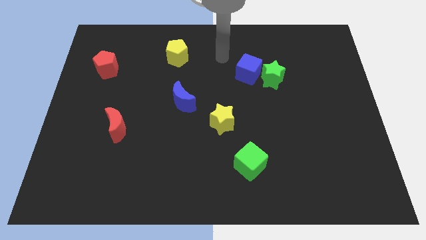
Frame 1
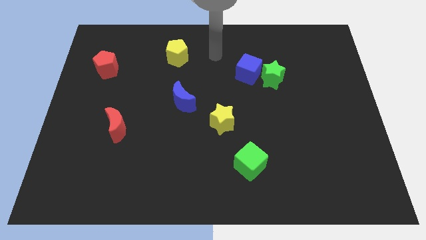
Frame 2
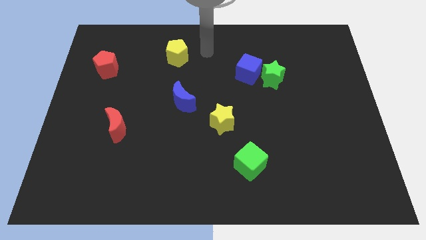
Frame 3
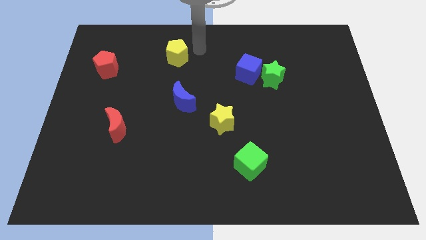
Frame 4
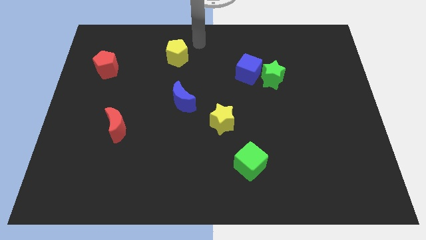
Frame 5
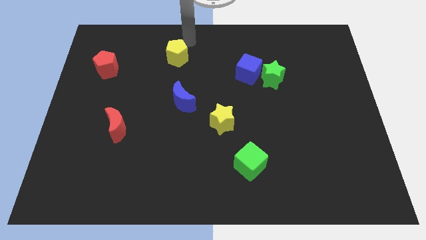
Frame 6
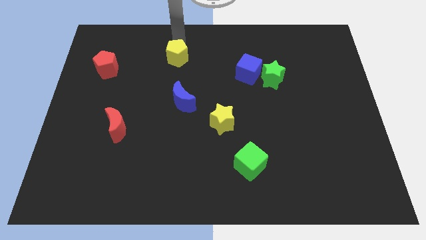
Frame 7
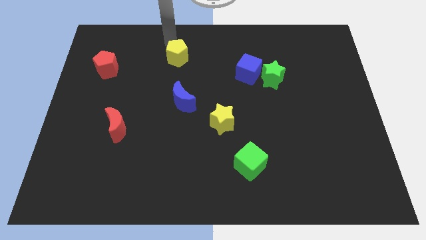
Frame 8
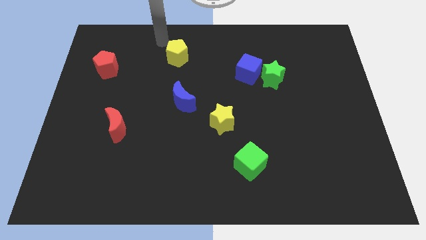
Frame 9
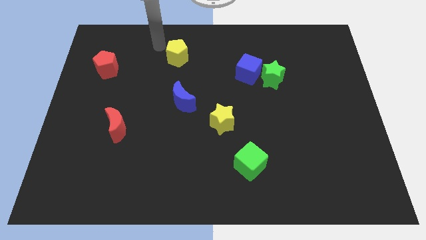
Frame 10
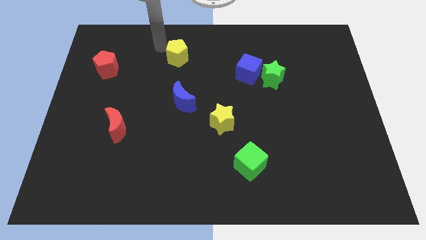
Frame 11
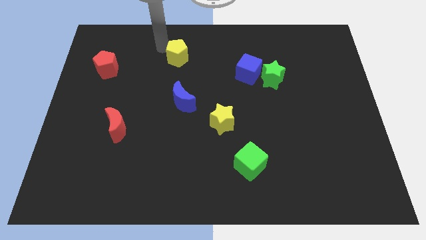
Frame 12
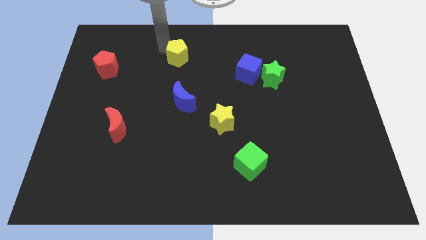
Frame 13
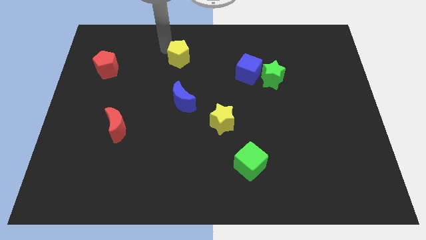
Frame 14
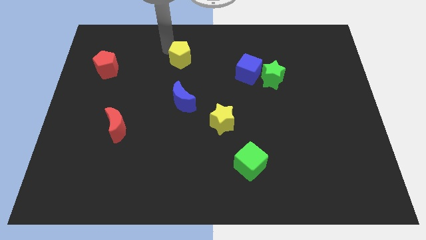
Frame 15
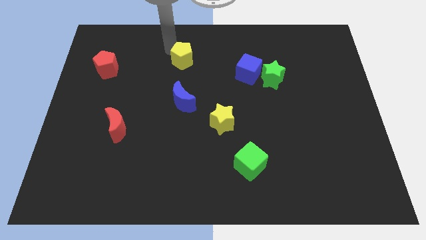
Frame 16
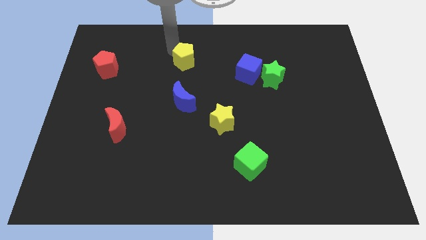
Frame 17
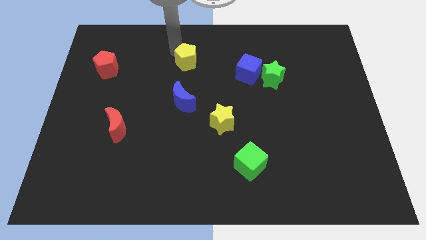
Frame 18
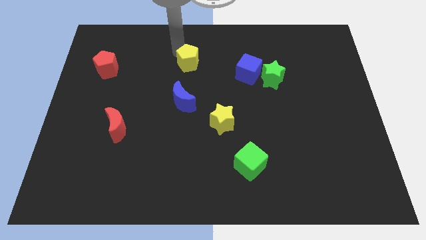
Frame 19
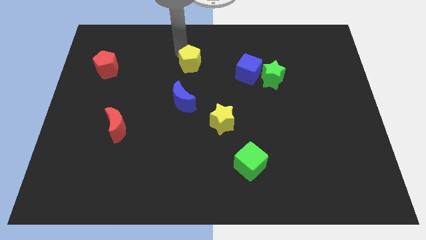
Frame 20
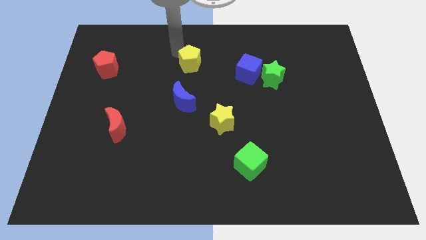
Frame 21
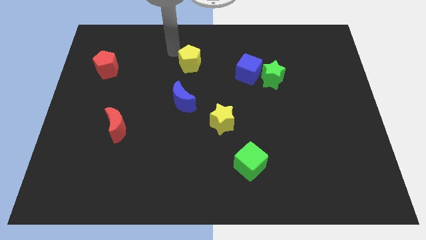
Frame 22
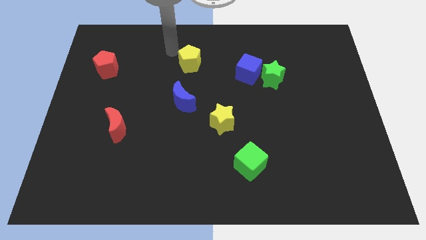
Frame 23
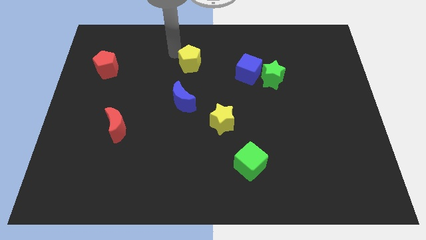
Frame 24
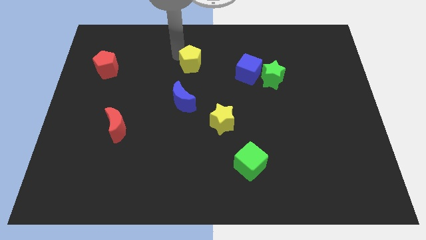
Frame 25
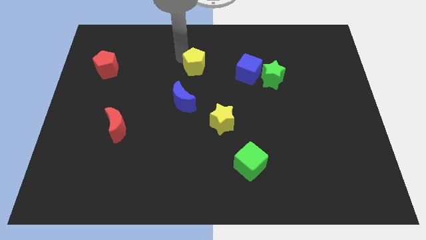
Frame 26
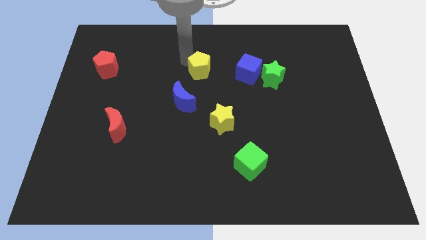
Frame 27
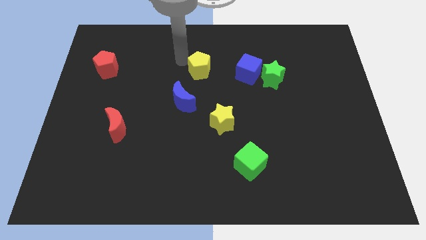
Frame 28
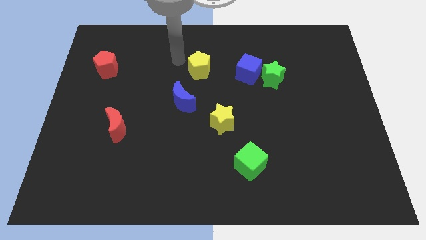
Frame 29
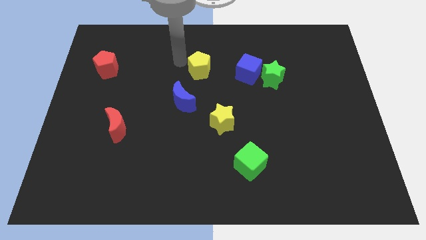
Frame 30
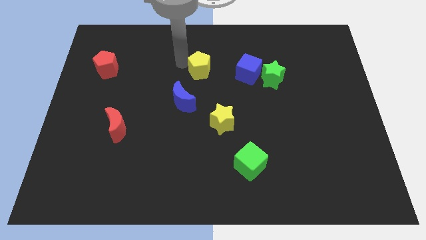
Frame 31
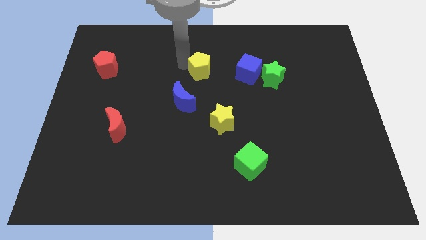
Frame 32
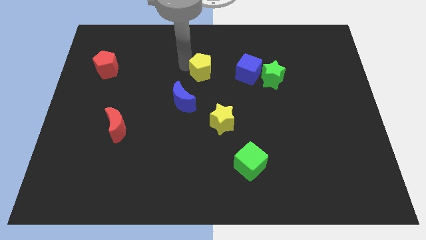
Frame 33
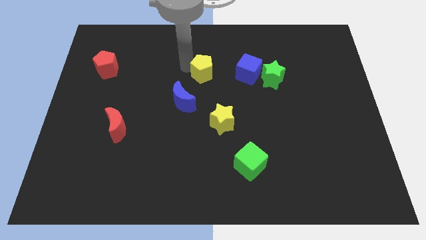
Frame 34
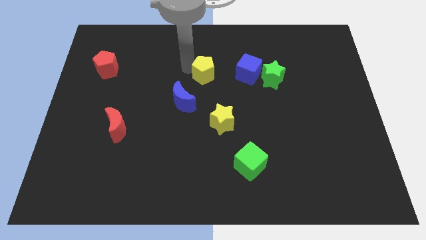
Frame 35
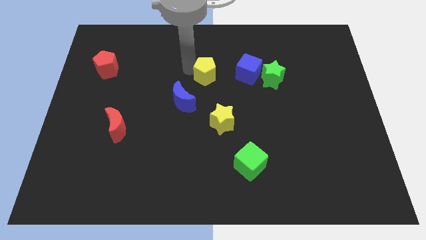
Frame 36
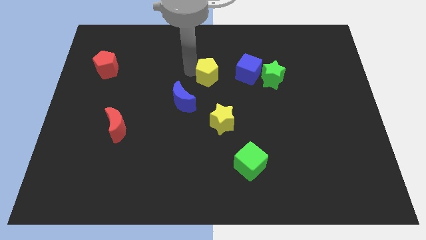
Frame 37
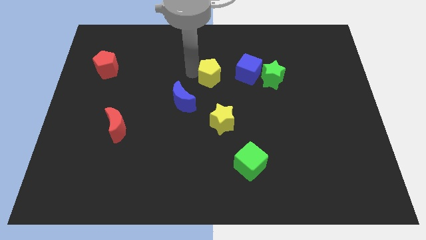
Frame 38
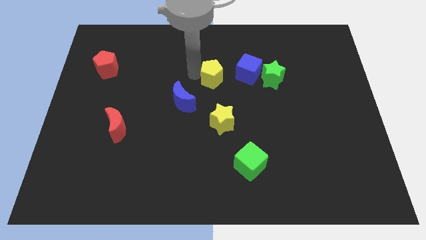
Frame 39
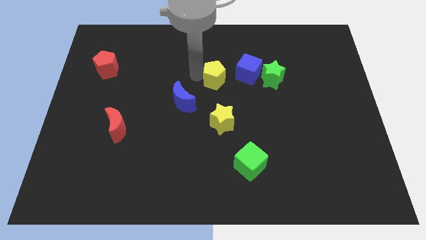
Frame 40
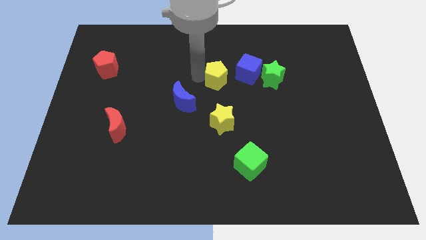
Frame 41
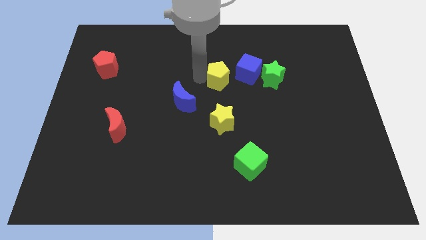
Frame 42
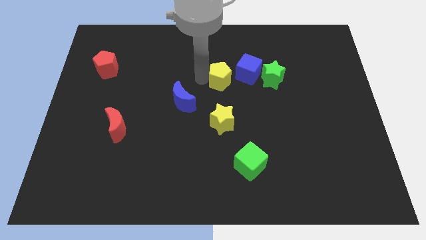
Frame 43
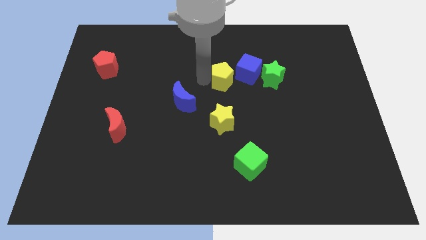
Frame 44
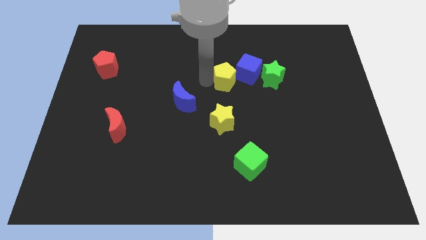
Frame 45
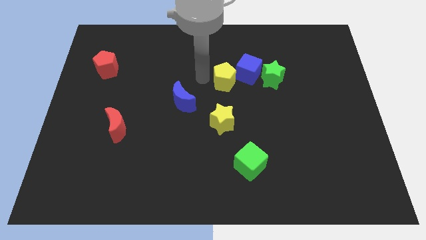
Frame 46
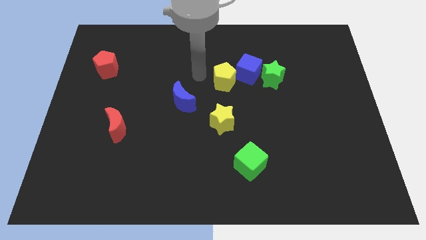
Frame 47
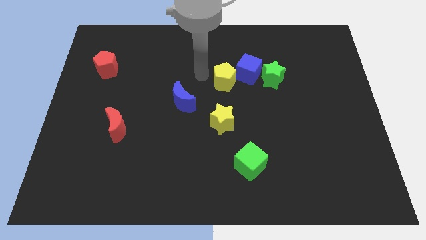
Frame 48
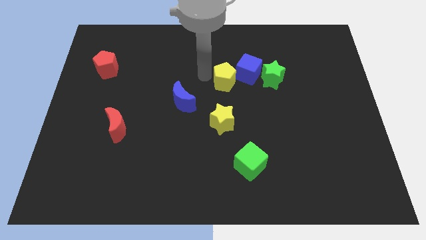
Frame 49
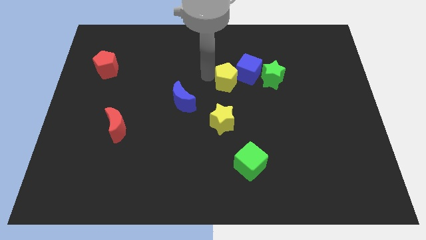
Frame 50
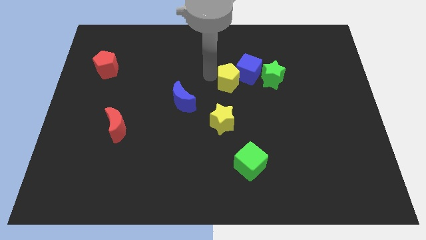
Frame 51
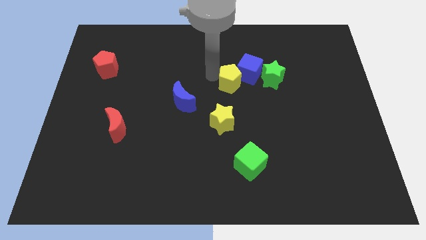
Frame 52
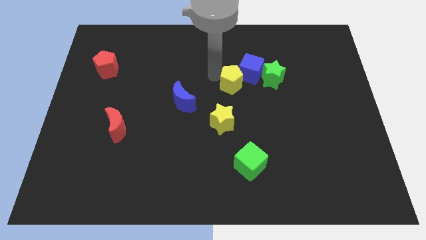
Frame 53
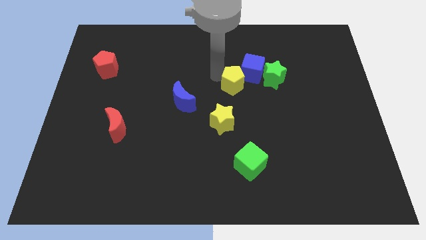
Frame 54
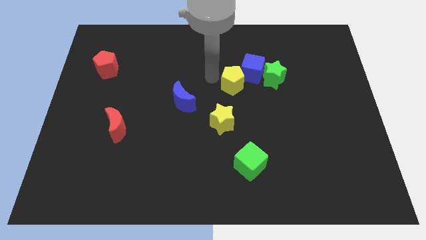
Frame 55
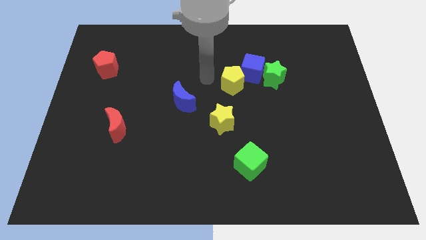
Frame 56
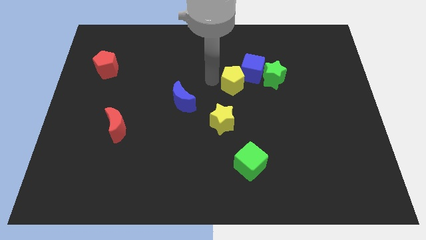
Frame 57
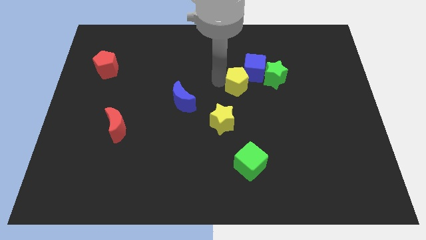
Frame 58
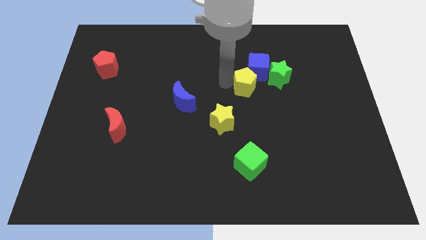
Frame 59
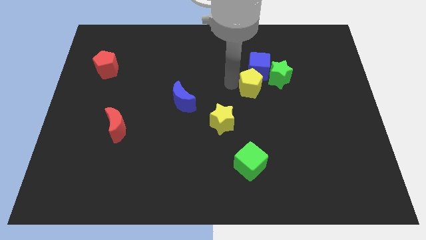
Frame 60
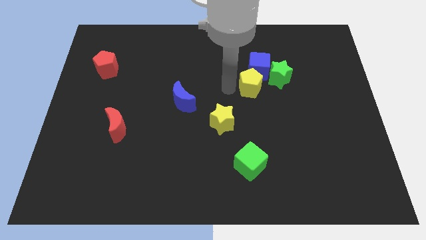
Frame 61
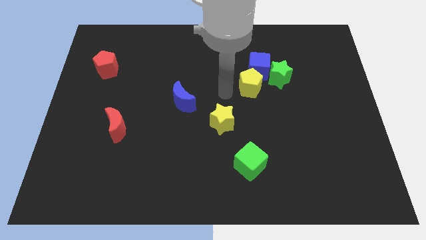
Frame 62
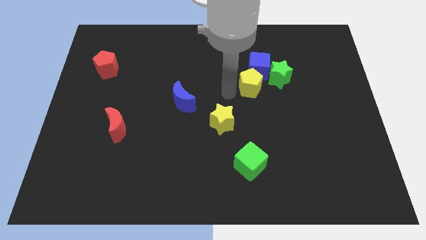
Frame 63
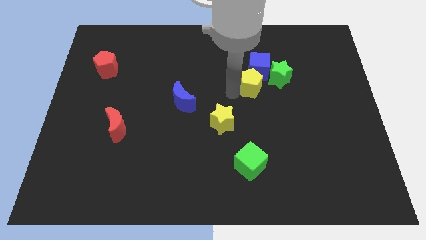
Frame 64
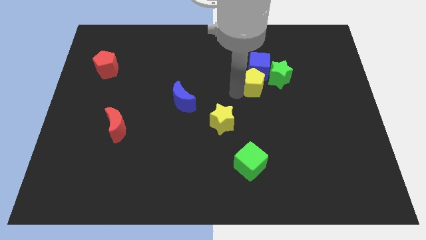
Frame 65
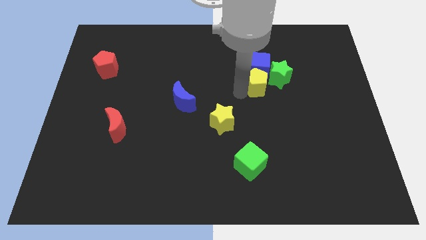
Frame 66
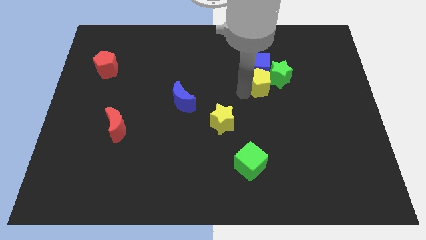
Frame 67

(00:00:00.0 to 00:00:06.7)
put the yellow pentagon next to the green star

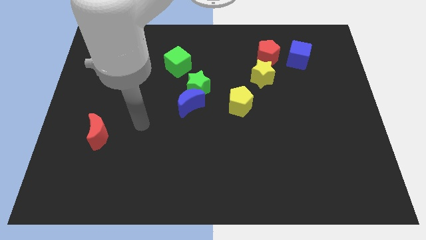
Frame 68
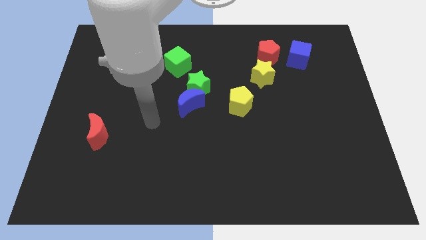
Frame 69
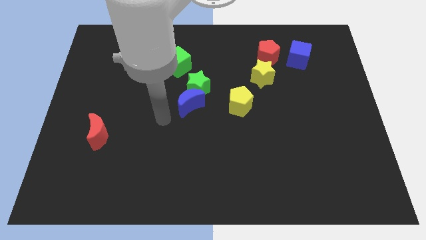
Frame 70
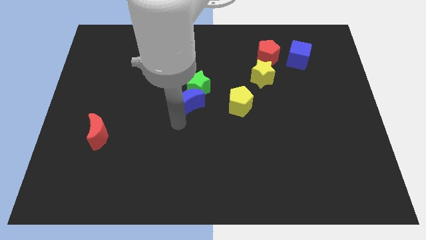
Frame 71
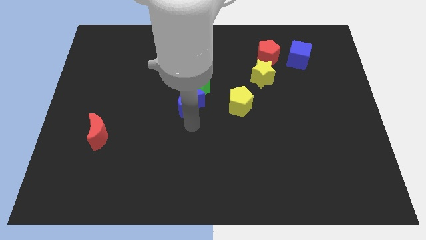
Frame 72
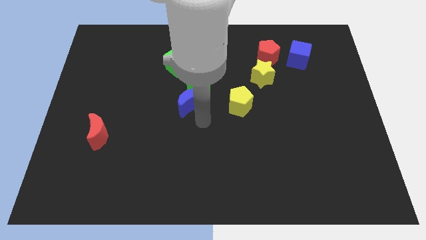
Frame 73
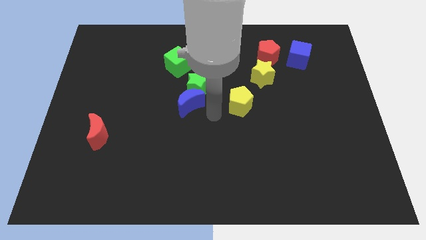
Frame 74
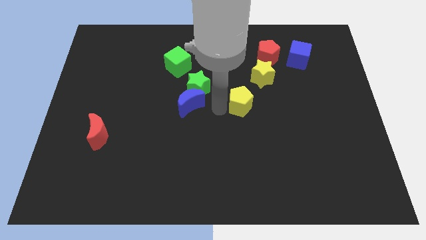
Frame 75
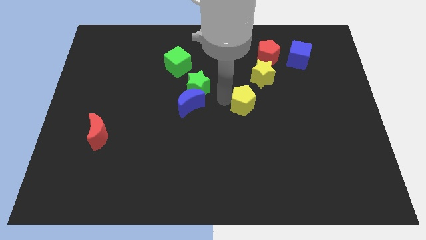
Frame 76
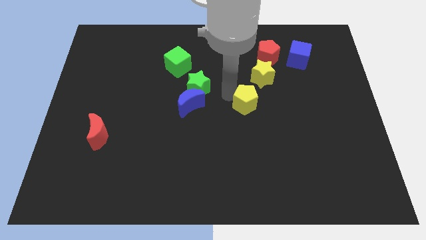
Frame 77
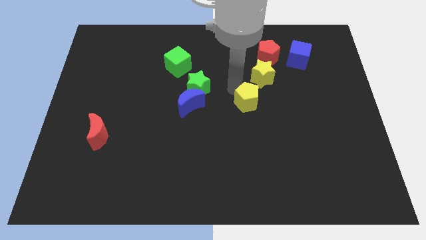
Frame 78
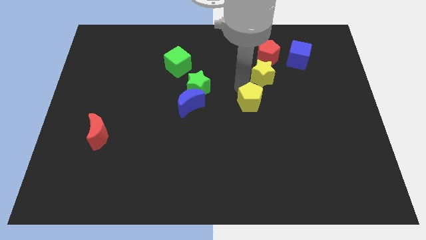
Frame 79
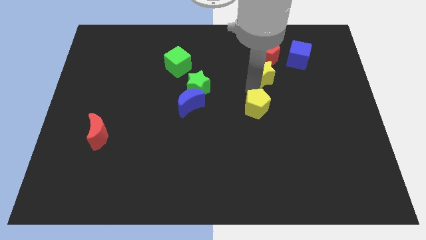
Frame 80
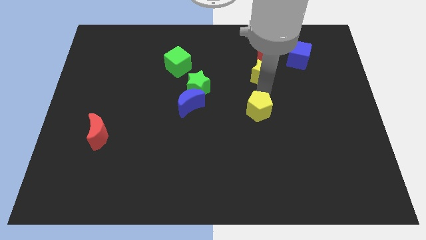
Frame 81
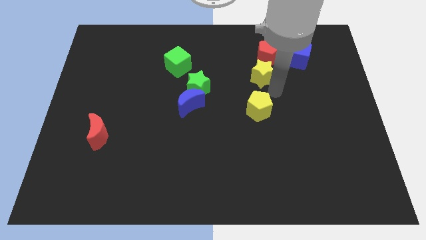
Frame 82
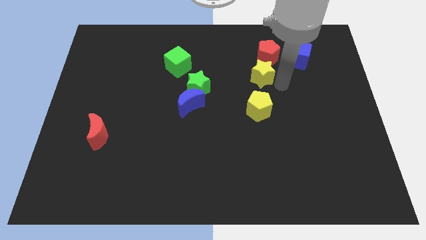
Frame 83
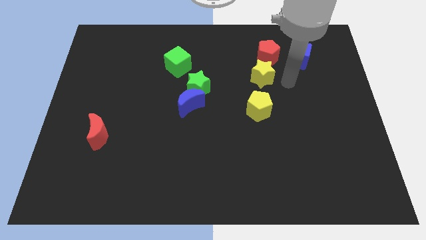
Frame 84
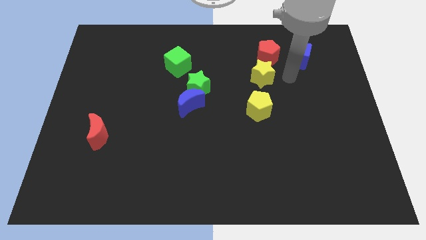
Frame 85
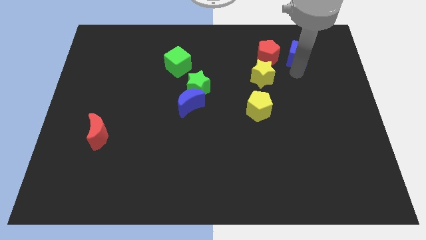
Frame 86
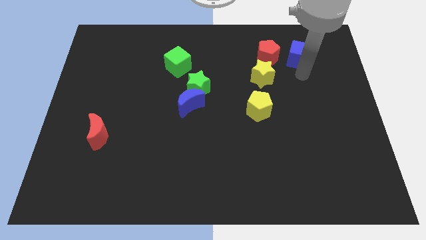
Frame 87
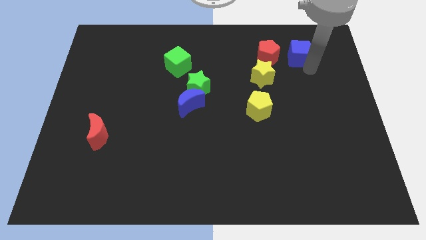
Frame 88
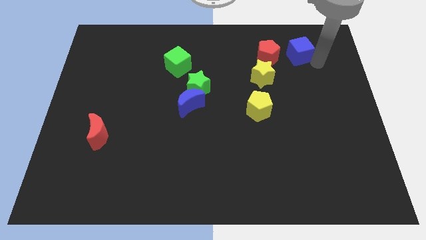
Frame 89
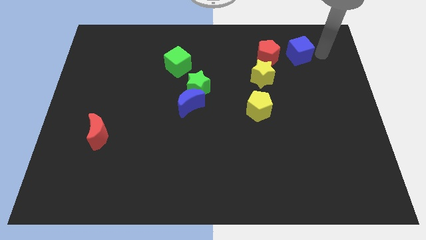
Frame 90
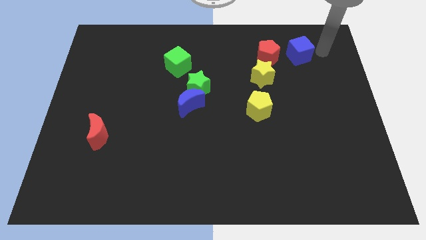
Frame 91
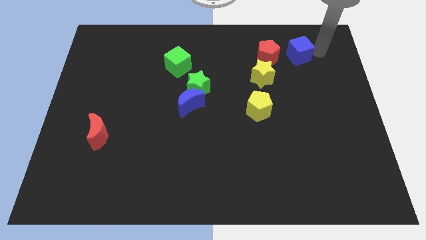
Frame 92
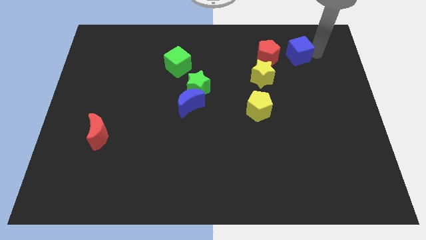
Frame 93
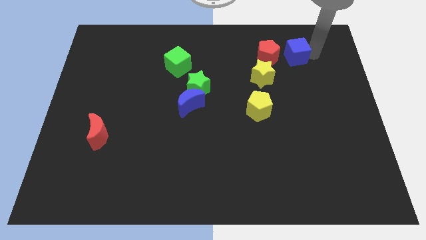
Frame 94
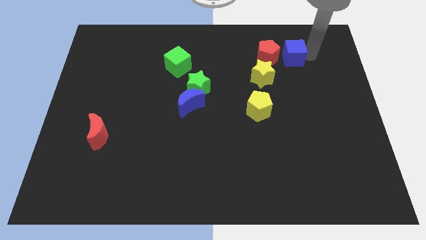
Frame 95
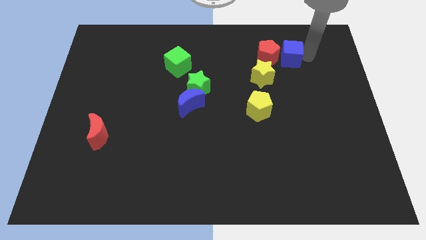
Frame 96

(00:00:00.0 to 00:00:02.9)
slide the blue cube next to the red pentagon
